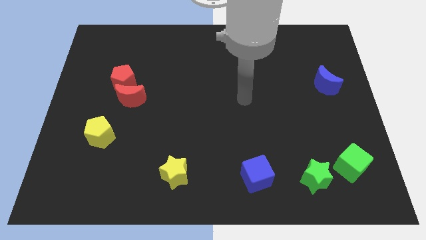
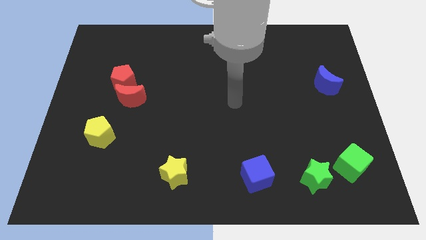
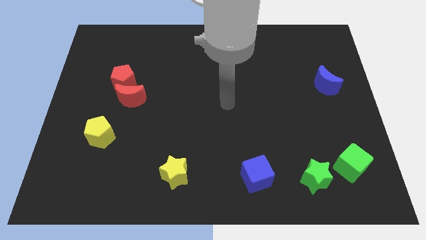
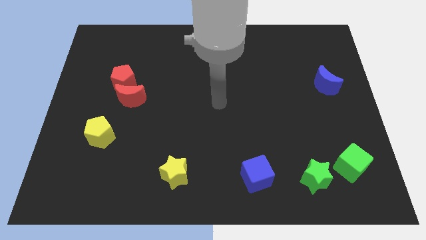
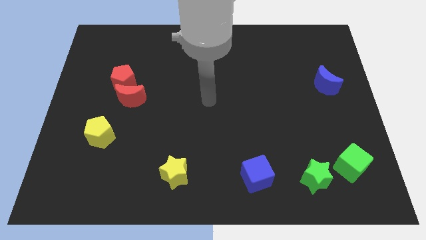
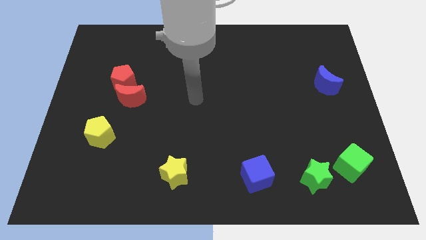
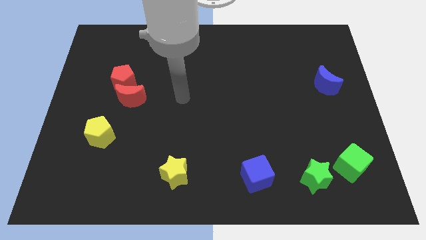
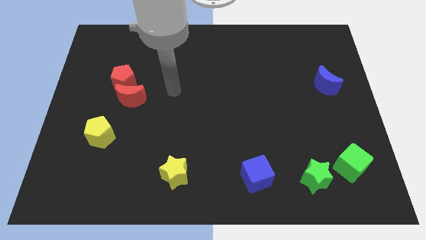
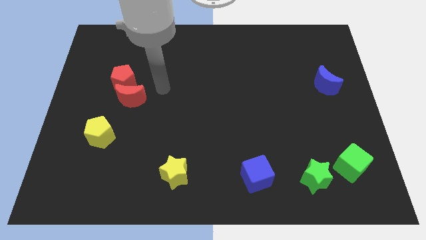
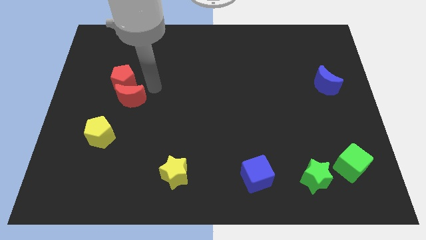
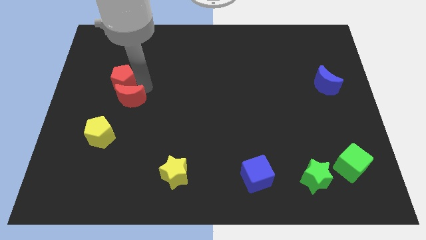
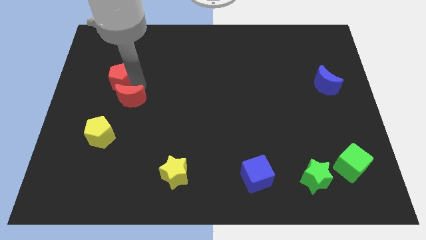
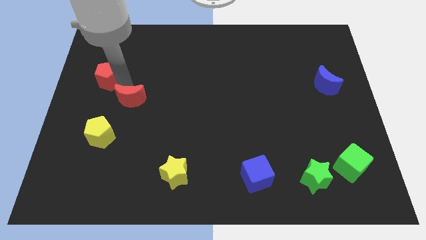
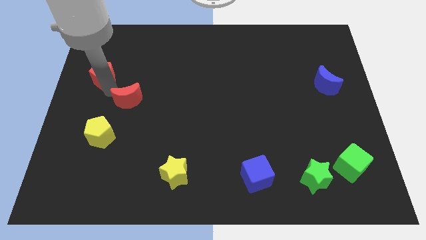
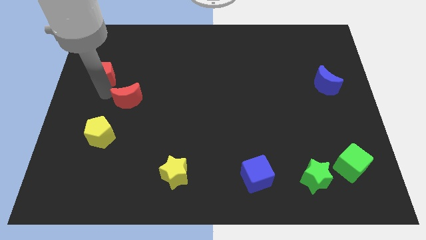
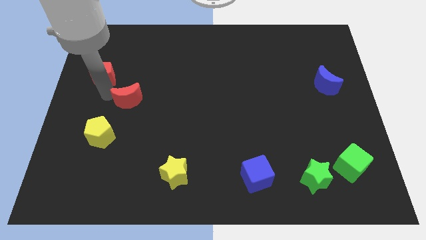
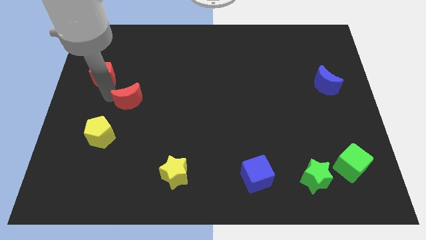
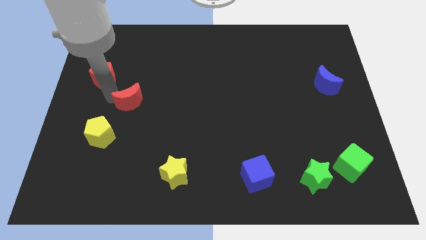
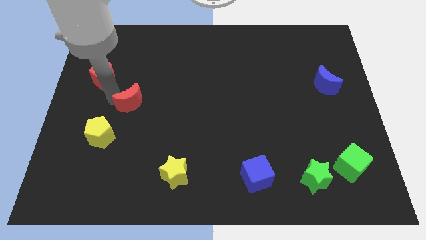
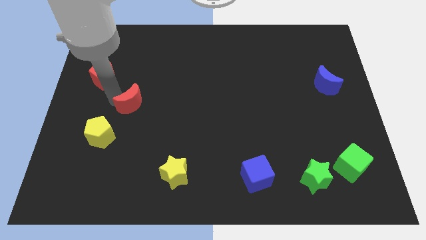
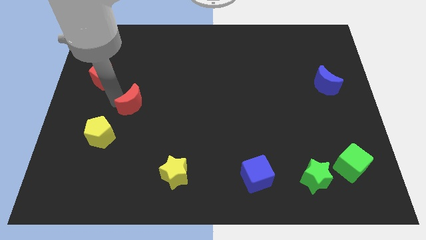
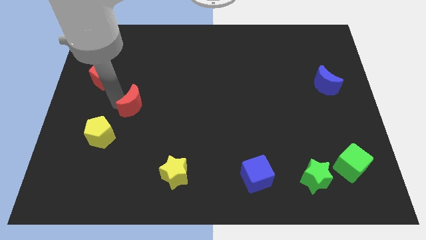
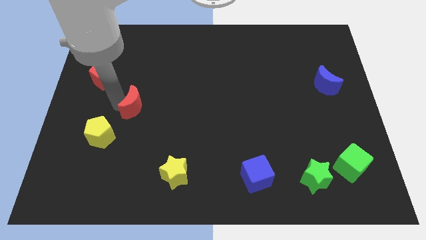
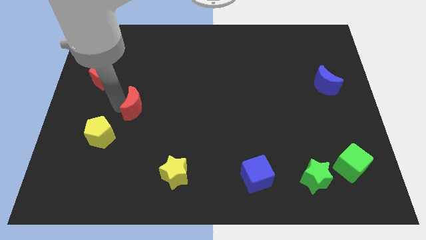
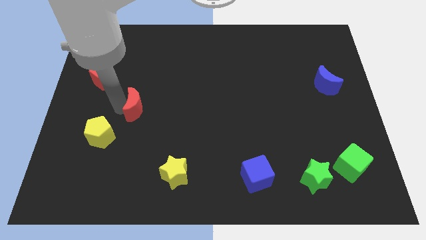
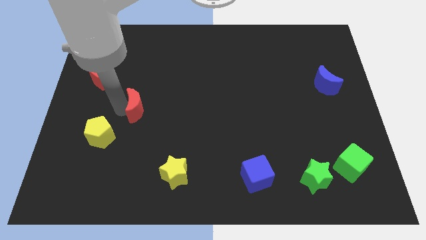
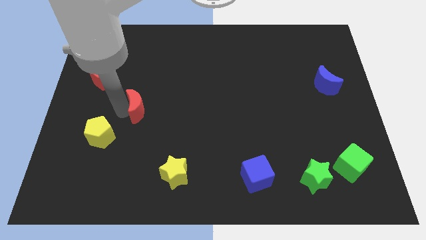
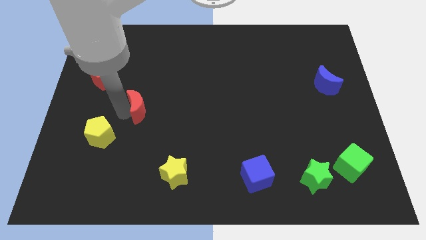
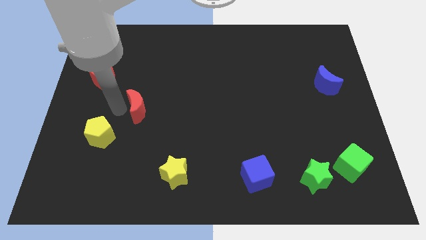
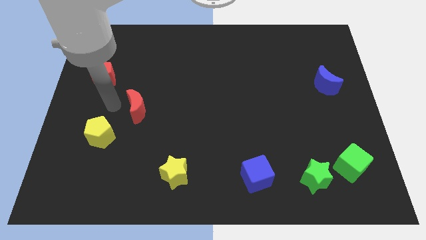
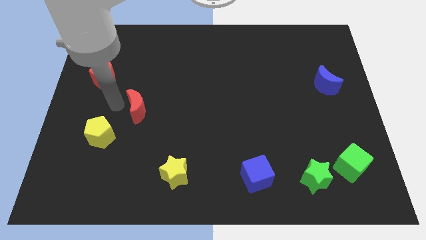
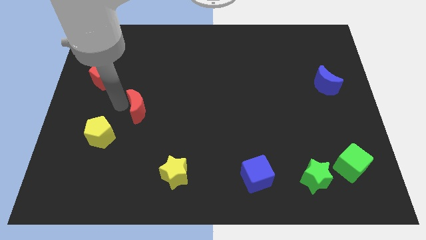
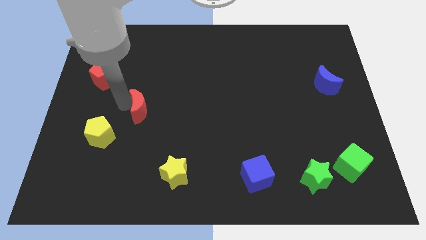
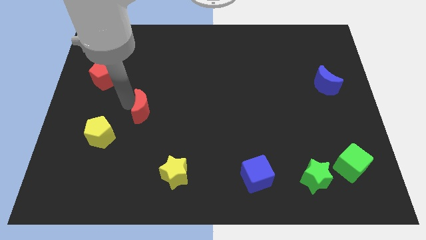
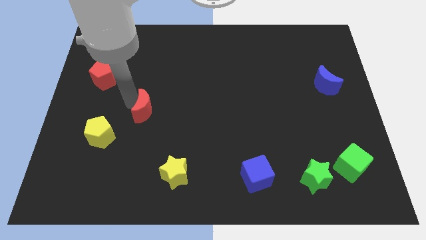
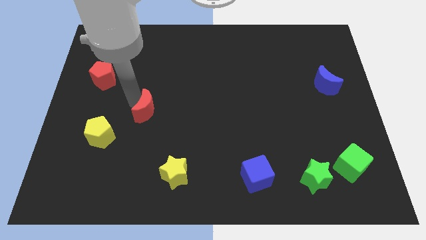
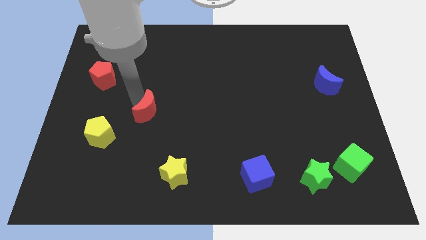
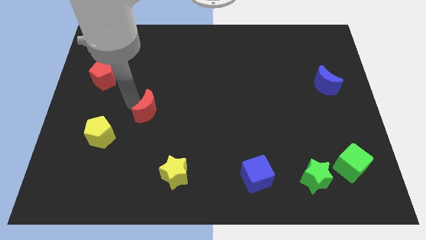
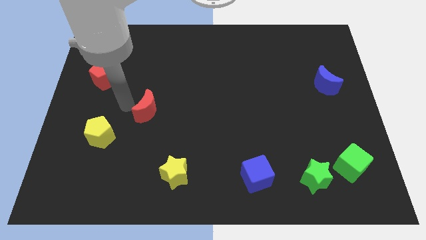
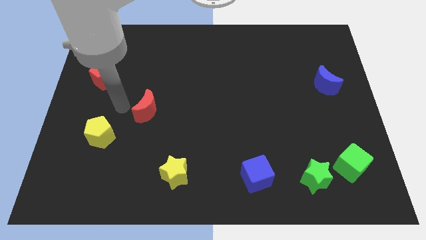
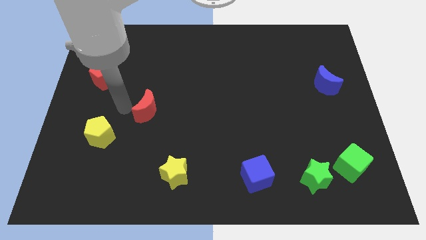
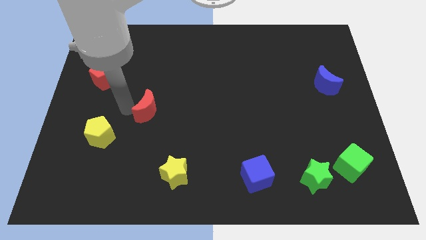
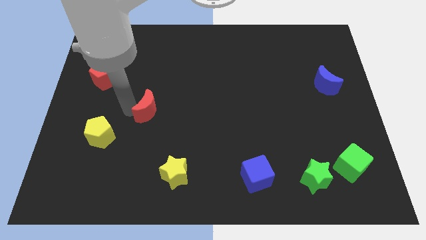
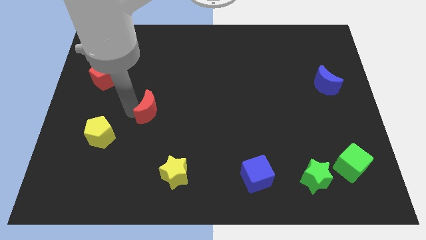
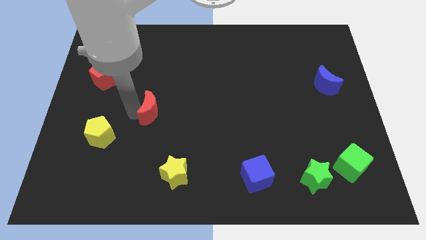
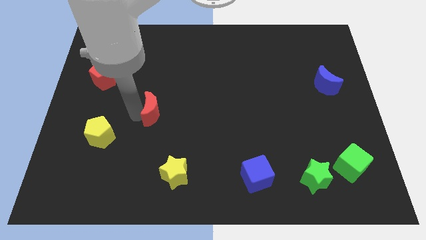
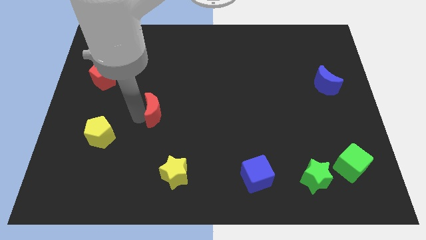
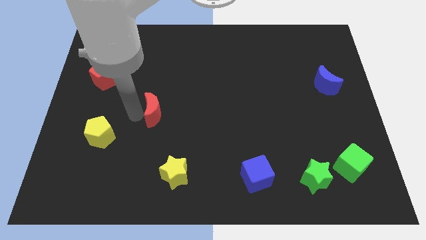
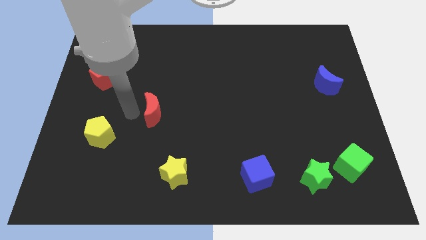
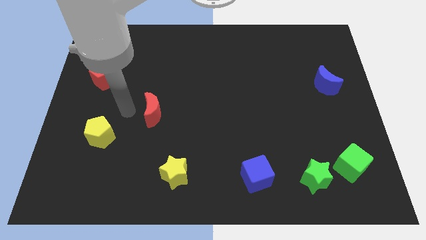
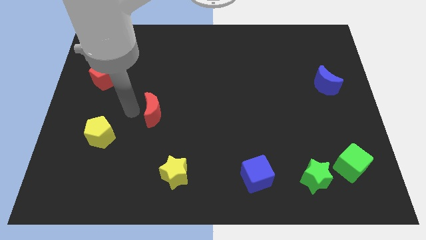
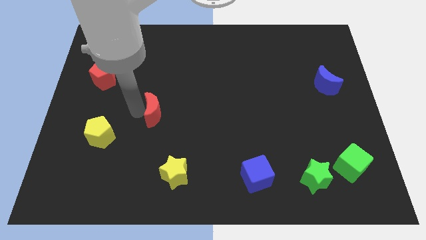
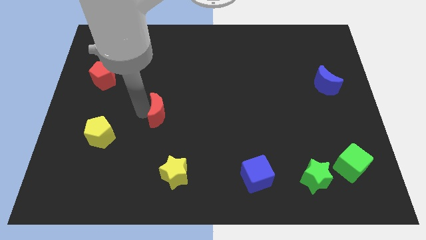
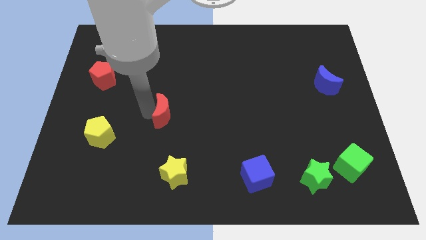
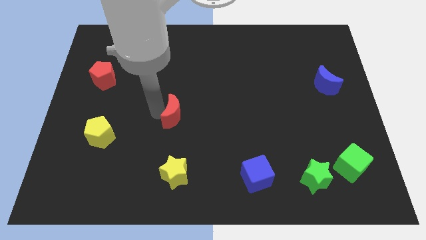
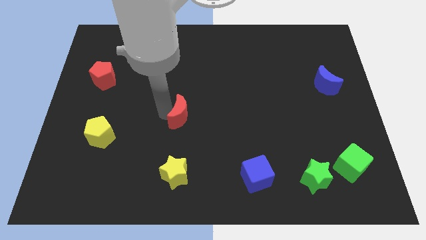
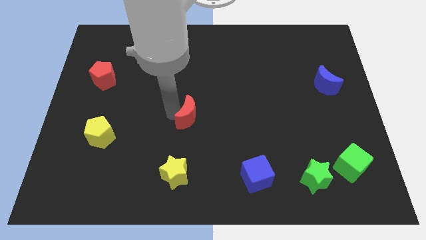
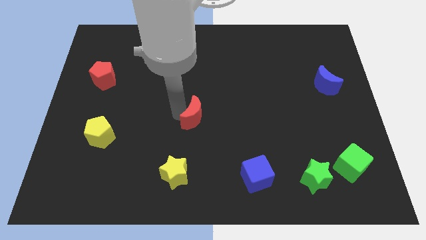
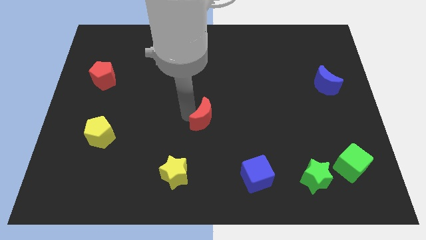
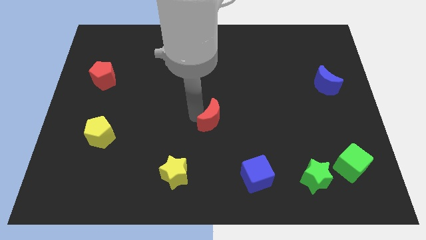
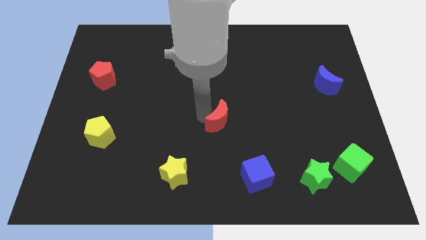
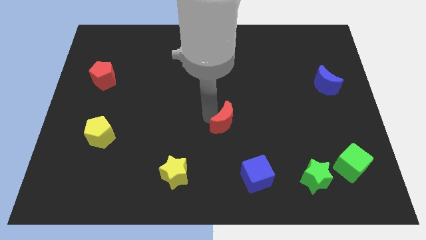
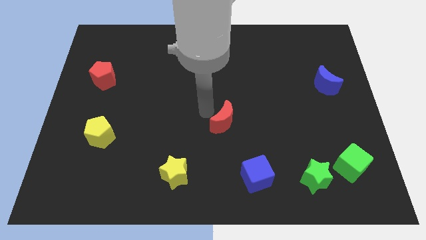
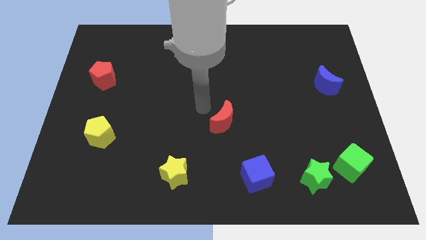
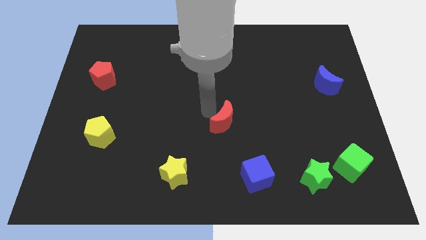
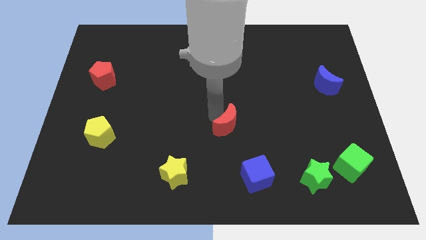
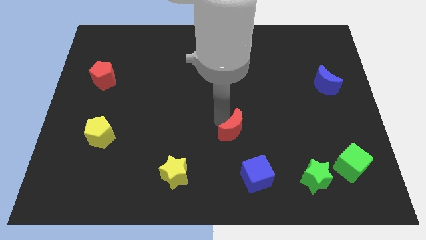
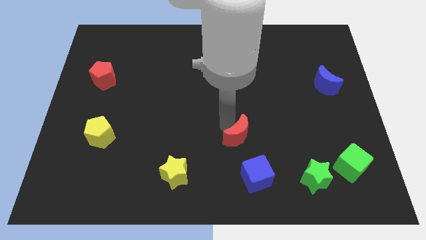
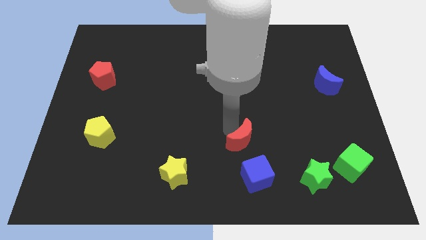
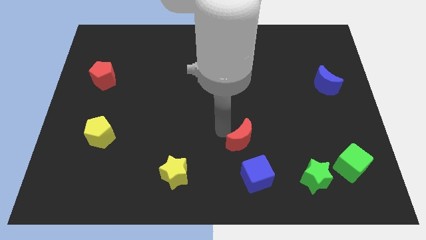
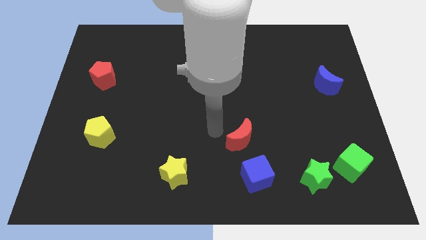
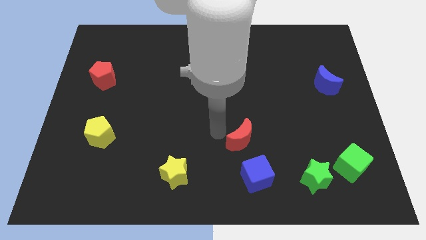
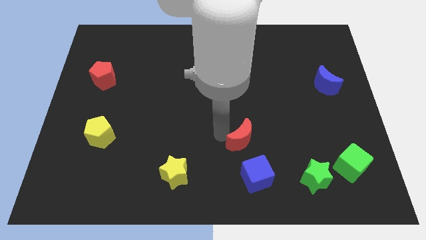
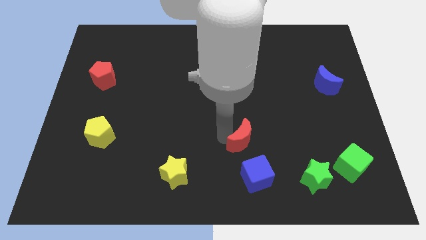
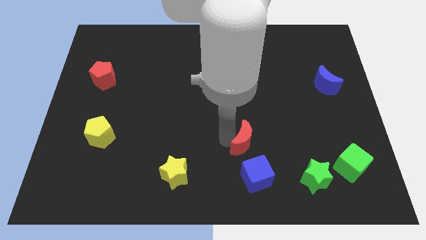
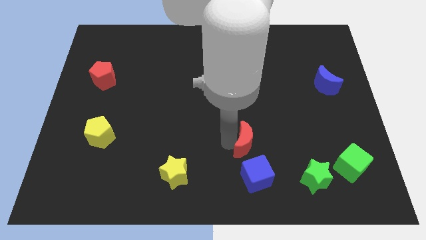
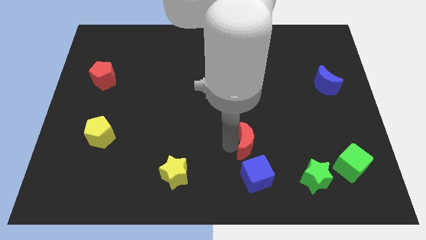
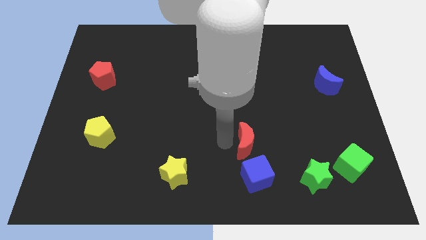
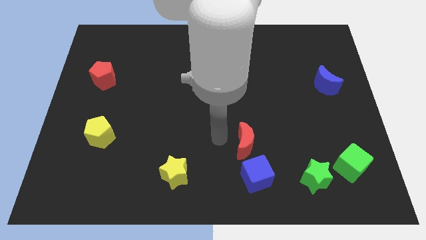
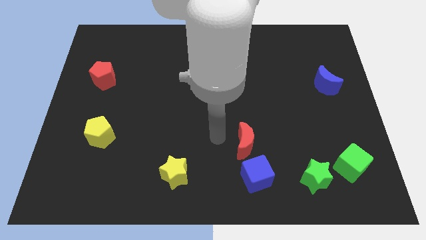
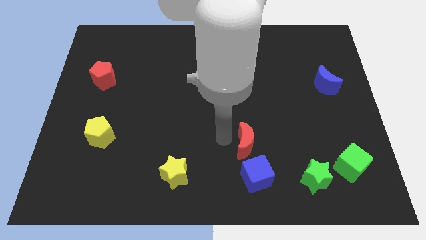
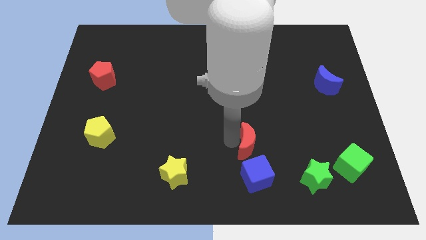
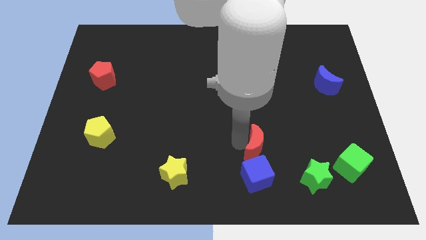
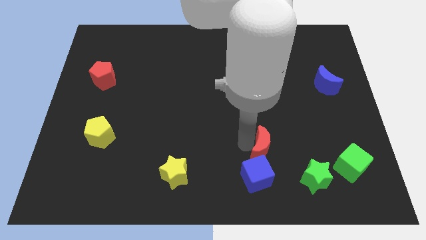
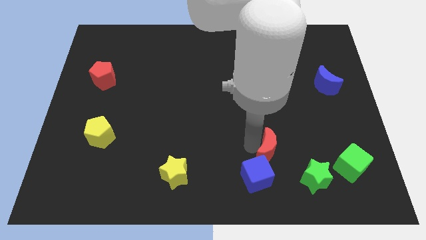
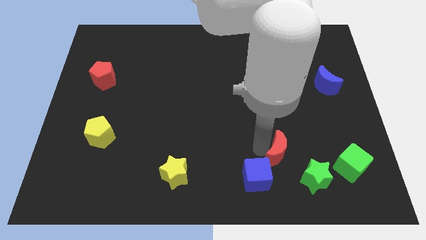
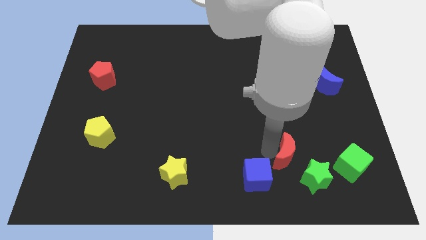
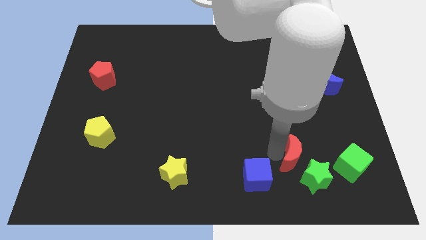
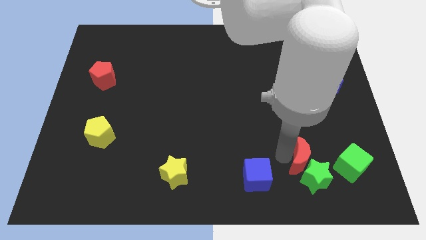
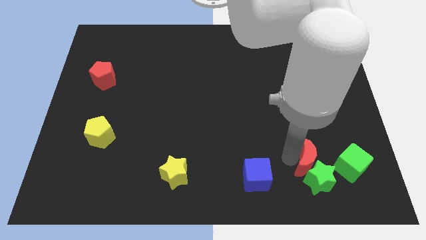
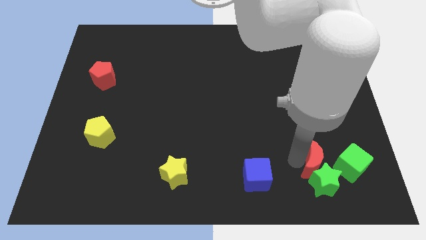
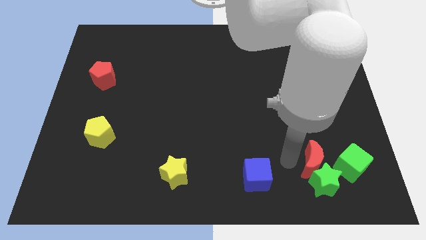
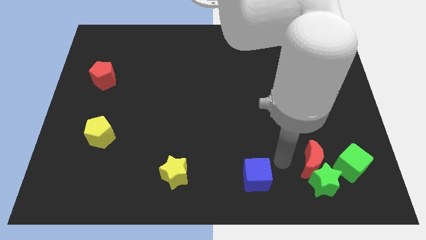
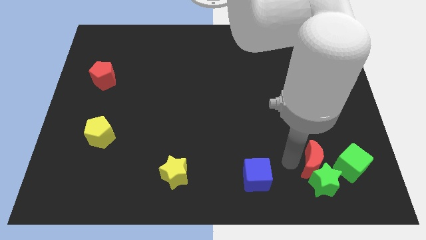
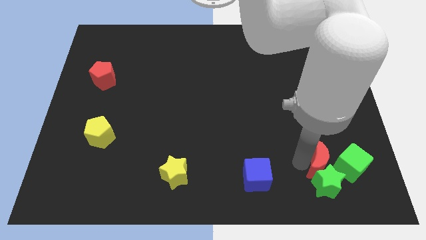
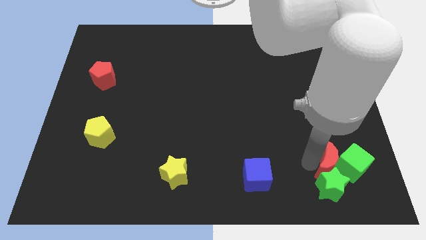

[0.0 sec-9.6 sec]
slide the red moon to the green cube
